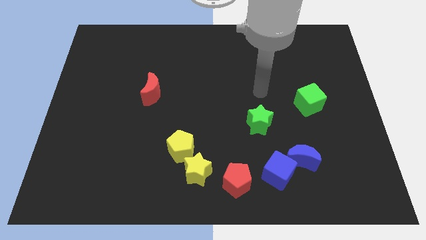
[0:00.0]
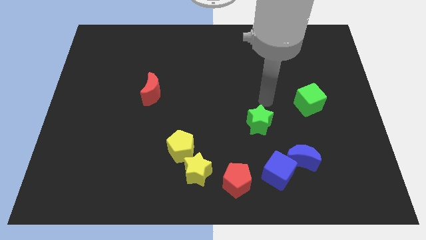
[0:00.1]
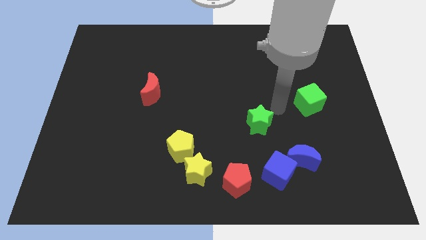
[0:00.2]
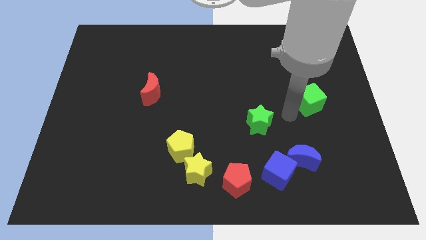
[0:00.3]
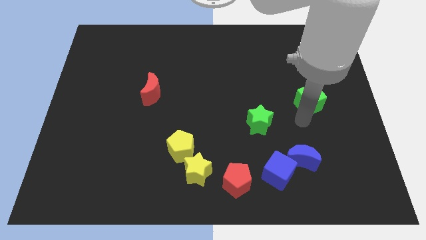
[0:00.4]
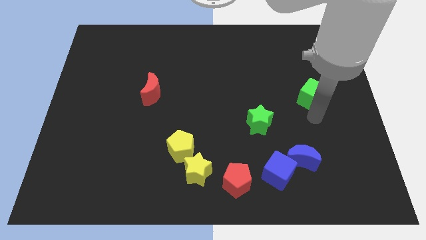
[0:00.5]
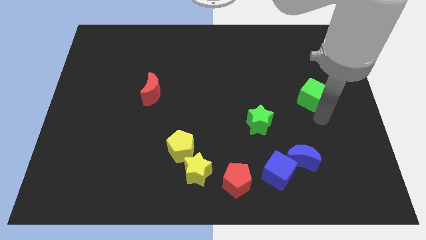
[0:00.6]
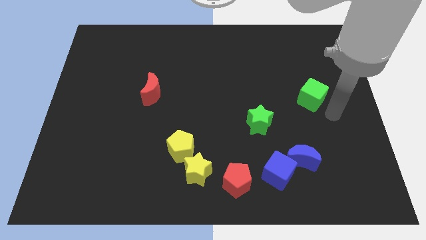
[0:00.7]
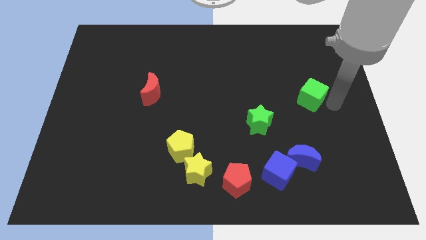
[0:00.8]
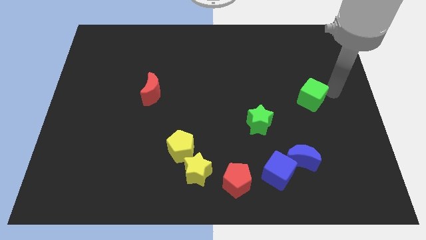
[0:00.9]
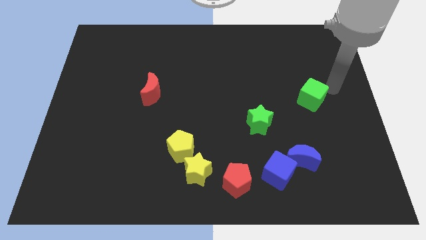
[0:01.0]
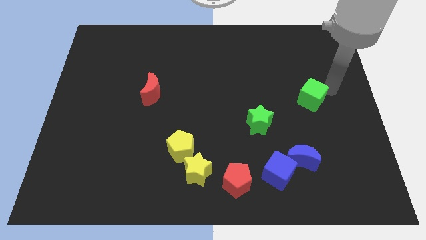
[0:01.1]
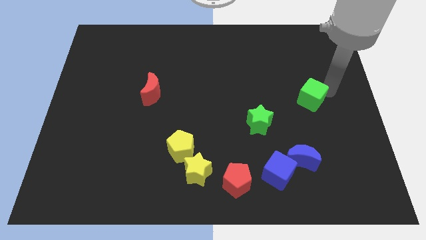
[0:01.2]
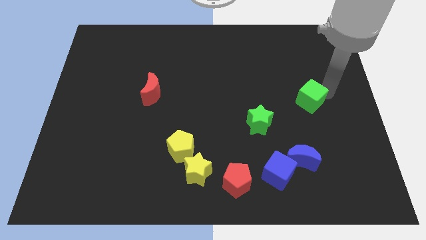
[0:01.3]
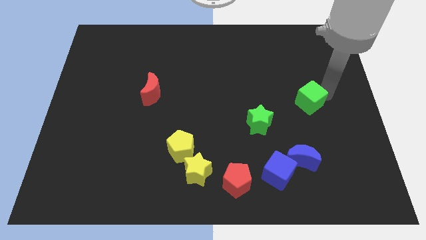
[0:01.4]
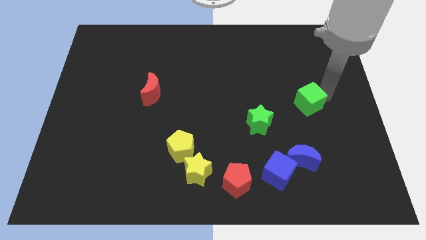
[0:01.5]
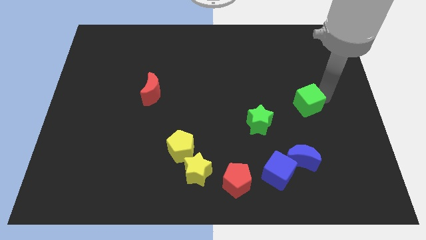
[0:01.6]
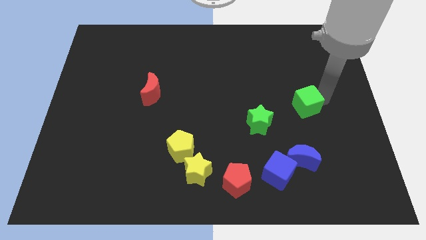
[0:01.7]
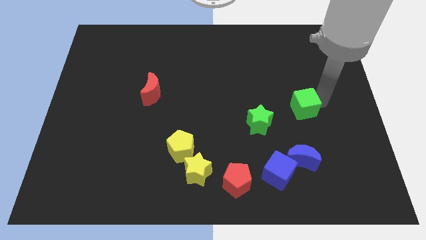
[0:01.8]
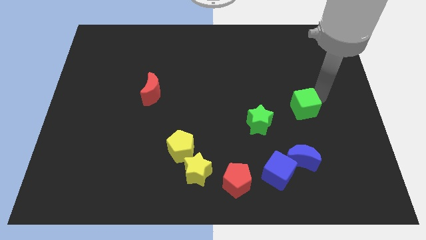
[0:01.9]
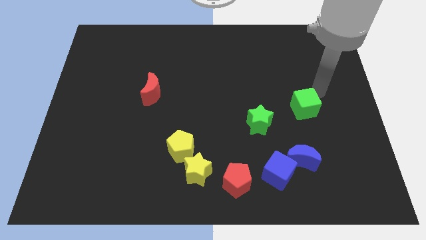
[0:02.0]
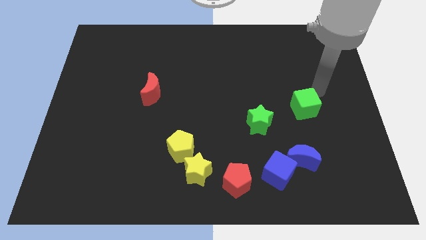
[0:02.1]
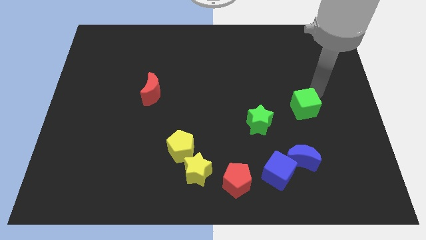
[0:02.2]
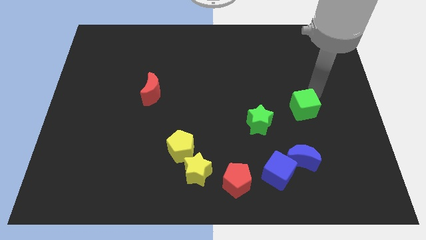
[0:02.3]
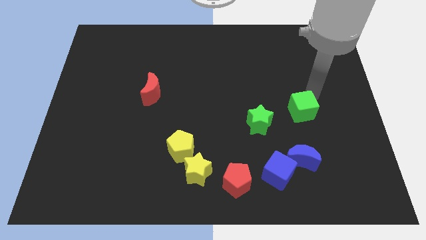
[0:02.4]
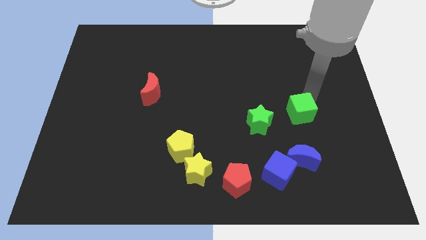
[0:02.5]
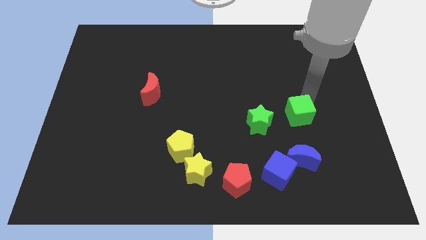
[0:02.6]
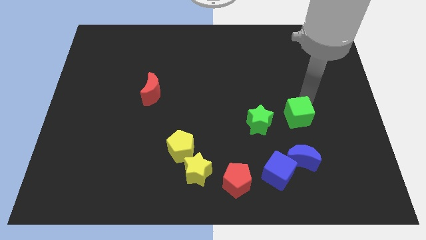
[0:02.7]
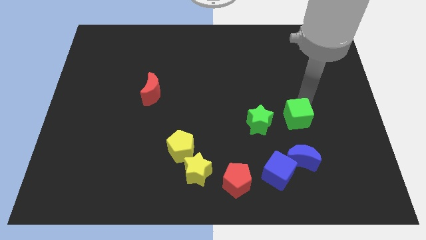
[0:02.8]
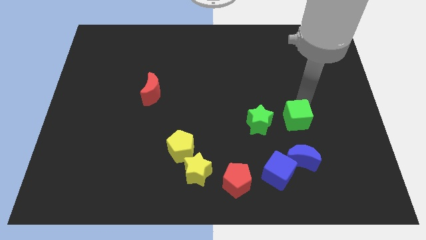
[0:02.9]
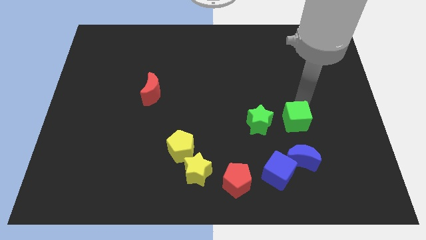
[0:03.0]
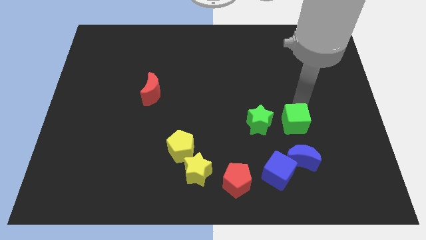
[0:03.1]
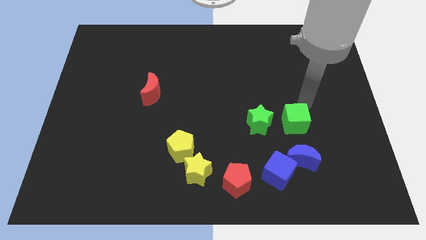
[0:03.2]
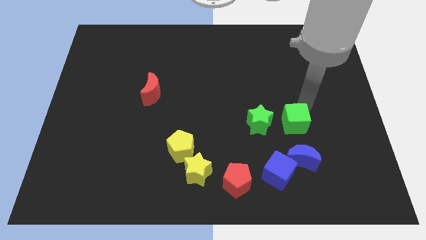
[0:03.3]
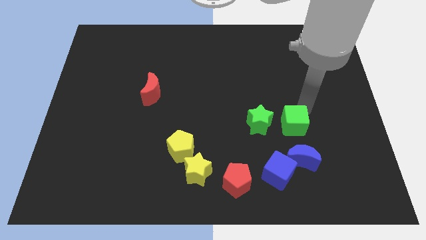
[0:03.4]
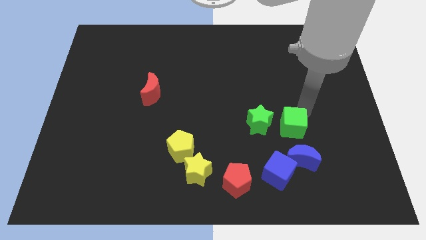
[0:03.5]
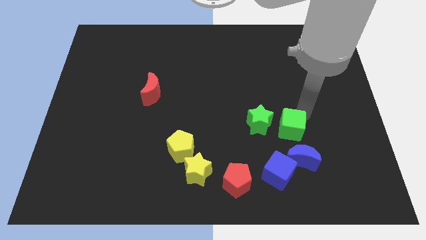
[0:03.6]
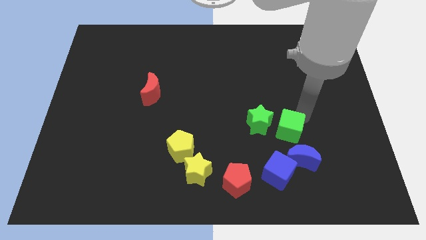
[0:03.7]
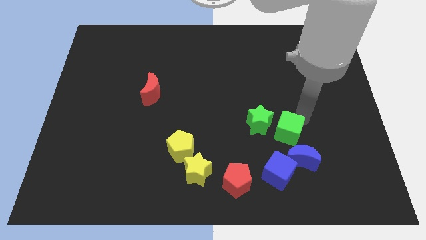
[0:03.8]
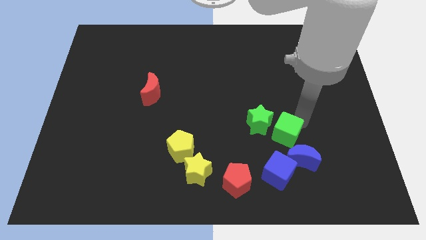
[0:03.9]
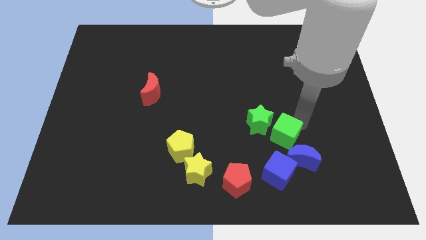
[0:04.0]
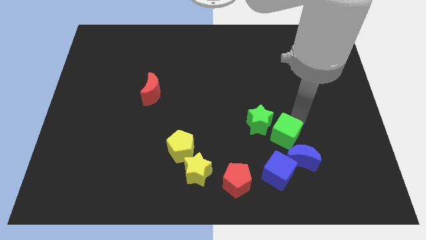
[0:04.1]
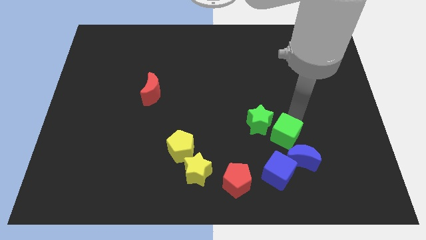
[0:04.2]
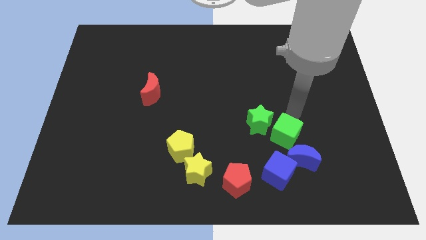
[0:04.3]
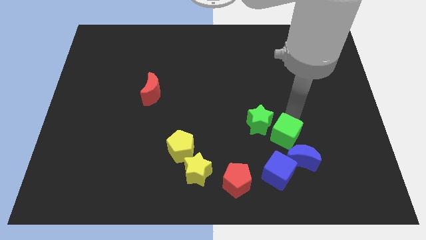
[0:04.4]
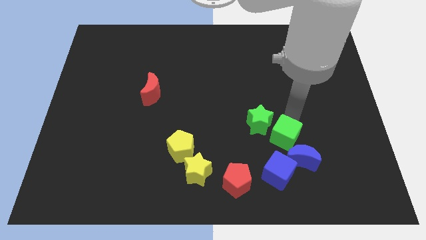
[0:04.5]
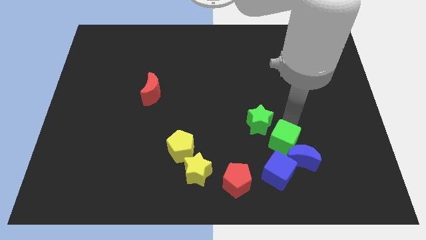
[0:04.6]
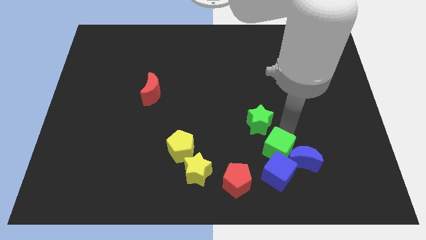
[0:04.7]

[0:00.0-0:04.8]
push the green cube next to the blue cube

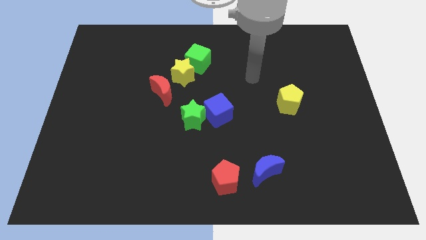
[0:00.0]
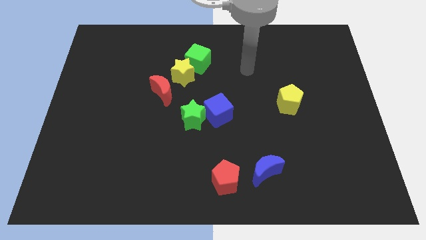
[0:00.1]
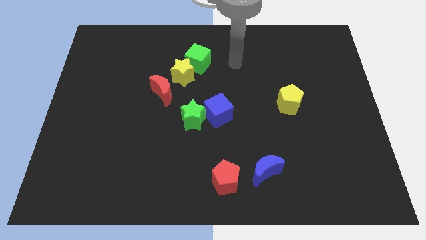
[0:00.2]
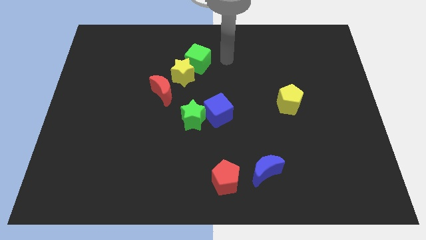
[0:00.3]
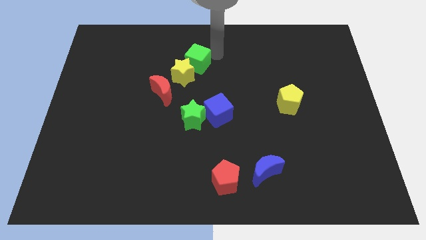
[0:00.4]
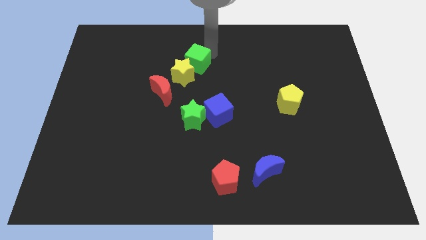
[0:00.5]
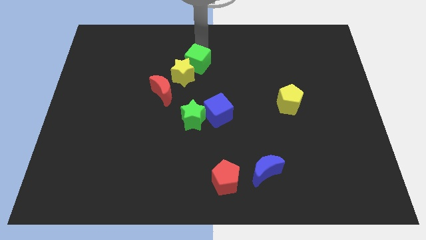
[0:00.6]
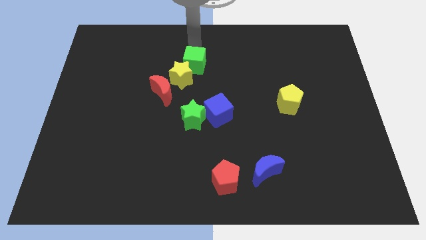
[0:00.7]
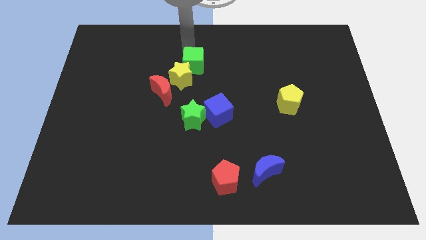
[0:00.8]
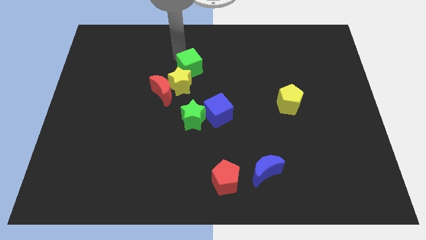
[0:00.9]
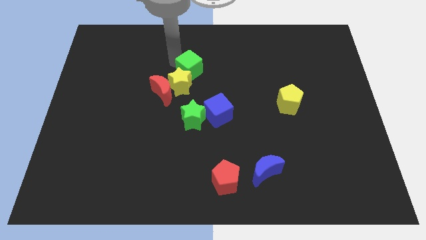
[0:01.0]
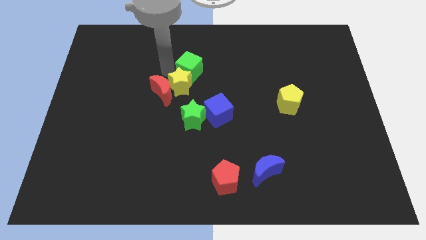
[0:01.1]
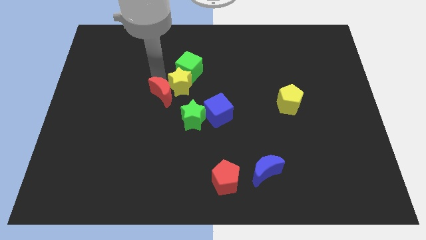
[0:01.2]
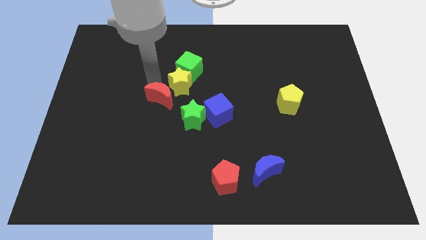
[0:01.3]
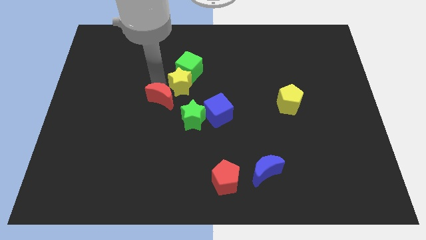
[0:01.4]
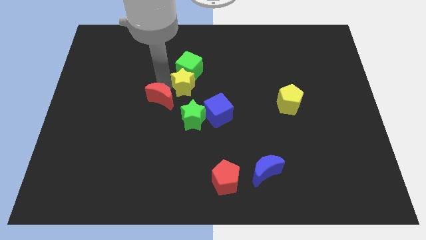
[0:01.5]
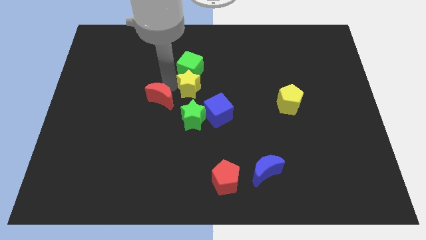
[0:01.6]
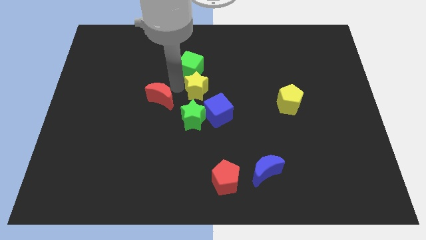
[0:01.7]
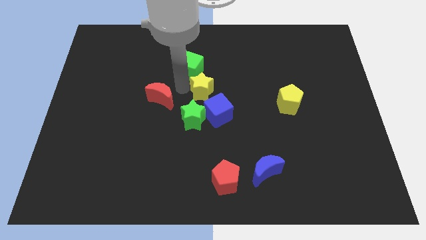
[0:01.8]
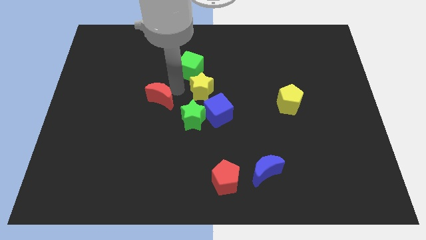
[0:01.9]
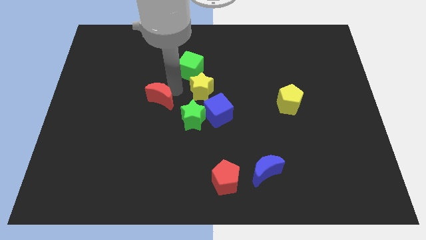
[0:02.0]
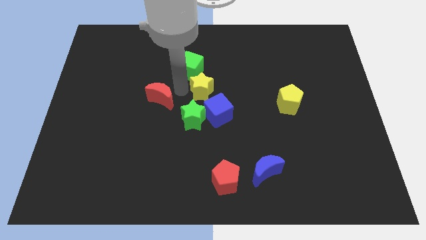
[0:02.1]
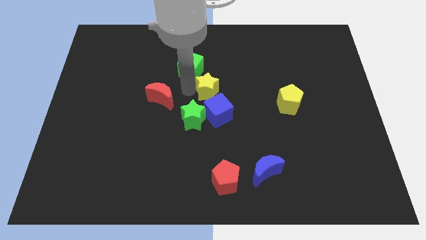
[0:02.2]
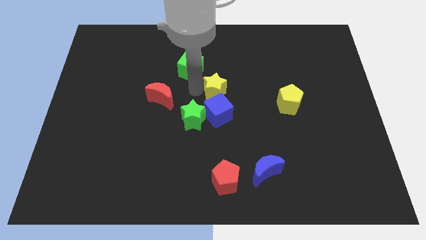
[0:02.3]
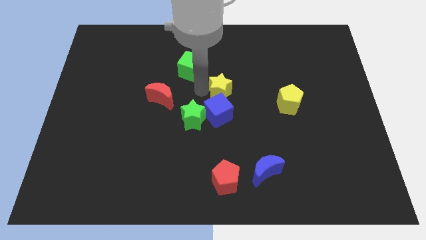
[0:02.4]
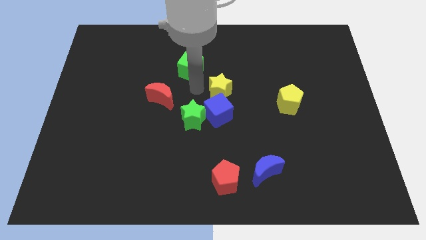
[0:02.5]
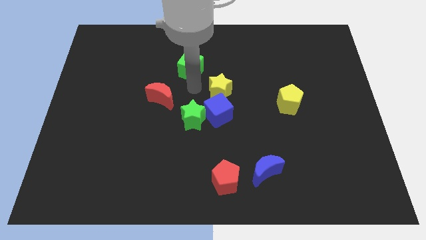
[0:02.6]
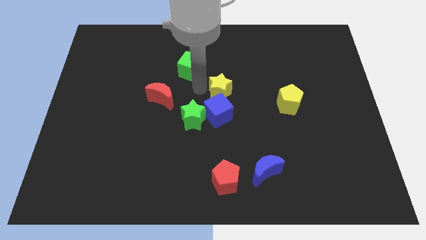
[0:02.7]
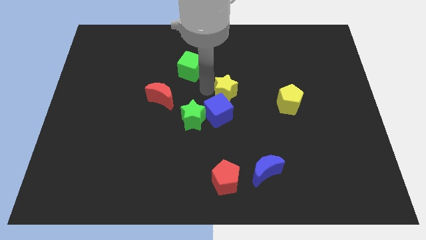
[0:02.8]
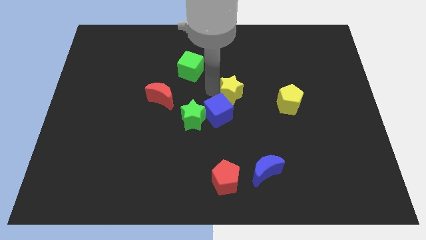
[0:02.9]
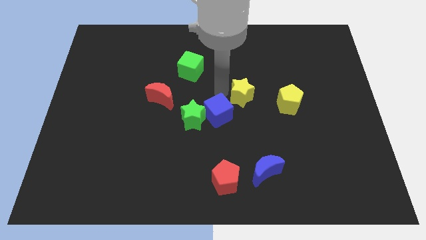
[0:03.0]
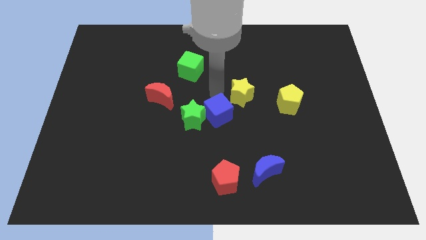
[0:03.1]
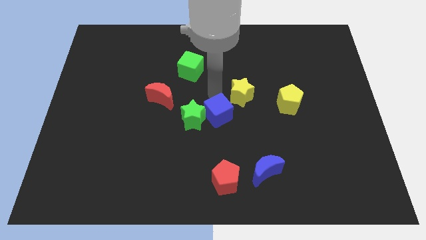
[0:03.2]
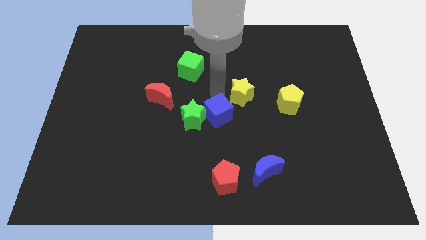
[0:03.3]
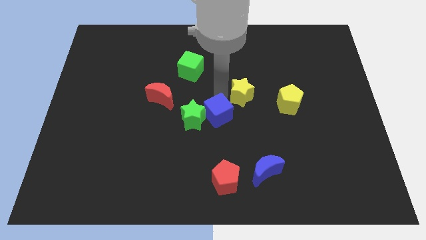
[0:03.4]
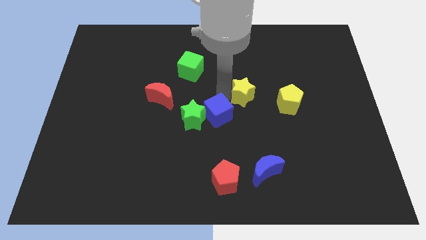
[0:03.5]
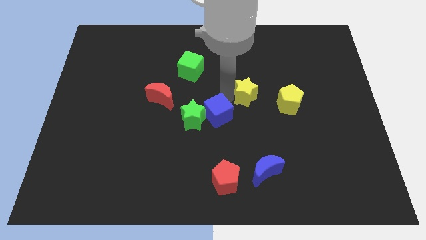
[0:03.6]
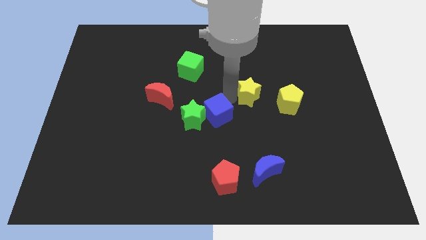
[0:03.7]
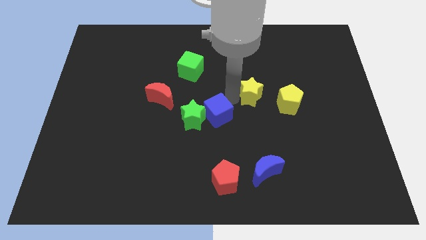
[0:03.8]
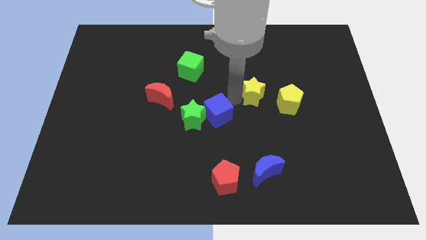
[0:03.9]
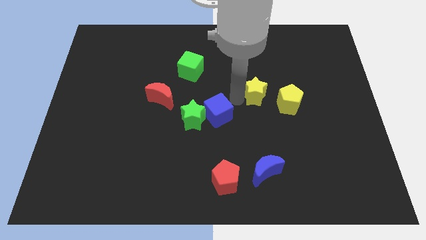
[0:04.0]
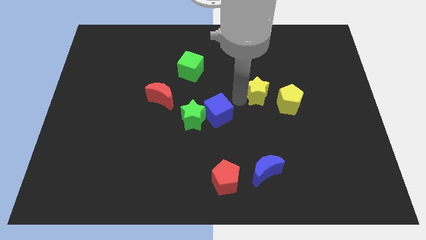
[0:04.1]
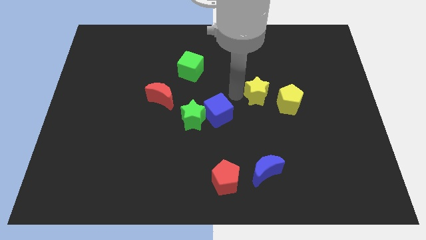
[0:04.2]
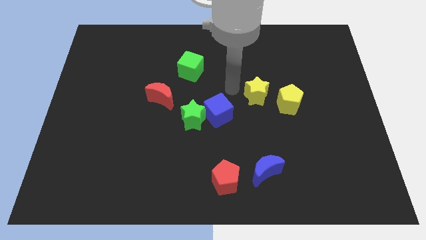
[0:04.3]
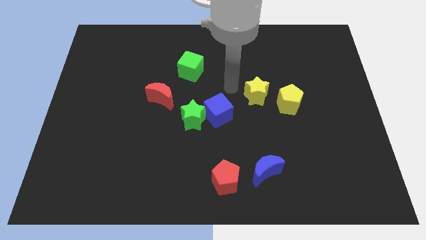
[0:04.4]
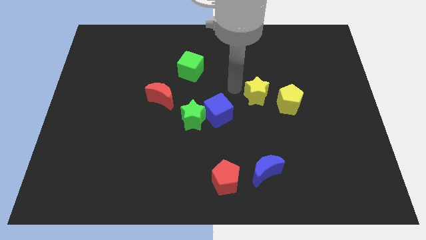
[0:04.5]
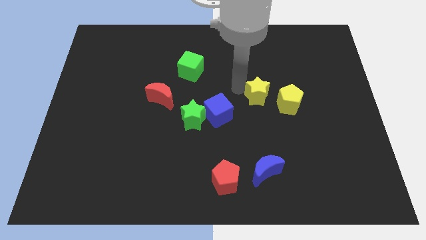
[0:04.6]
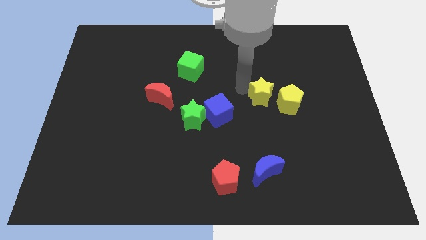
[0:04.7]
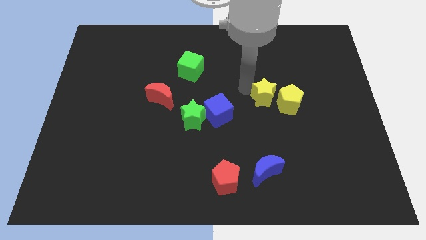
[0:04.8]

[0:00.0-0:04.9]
slide the yellow star to the yellow pentagon
